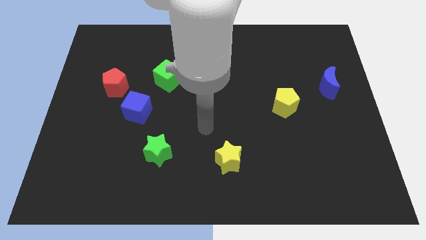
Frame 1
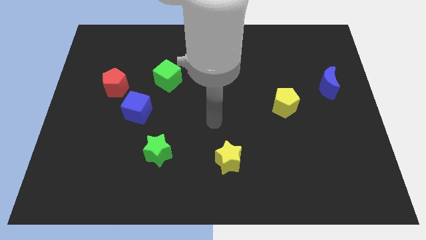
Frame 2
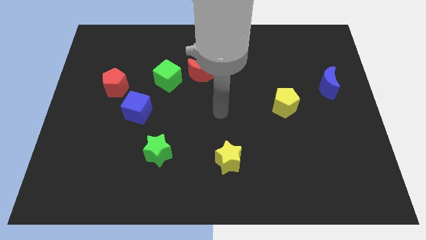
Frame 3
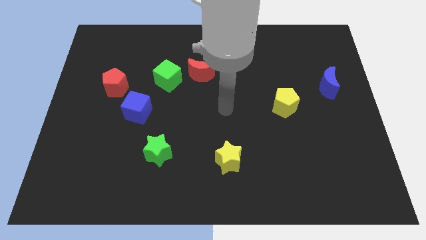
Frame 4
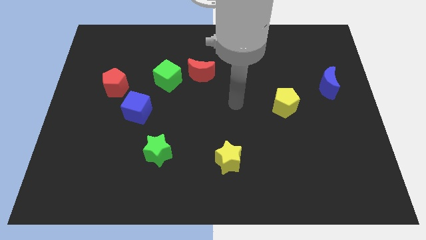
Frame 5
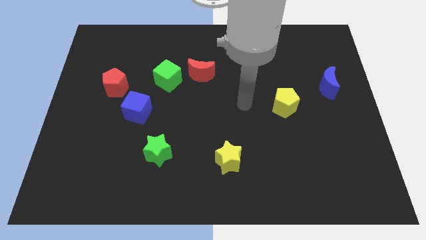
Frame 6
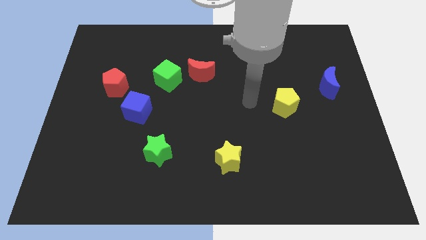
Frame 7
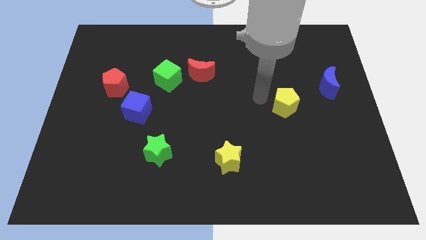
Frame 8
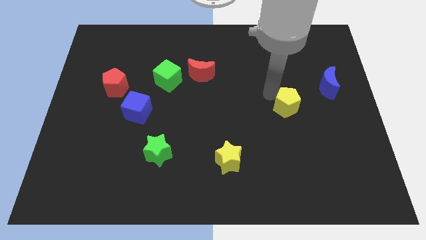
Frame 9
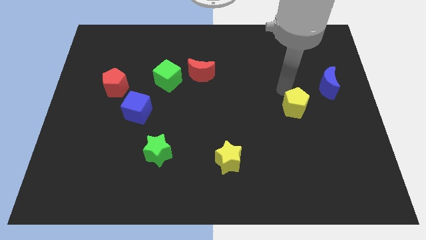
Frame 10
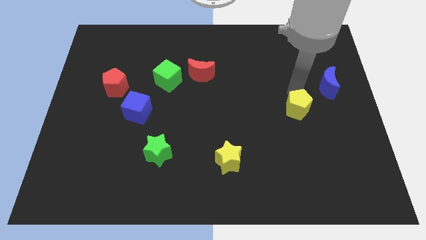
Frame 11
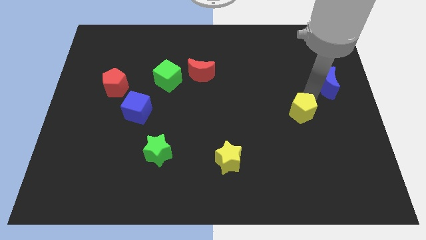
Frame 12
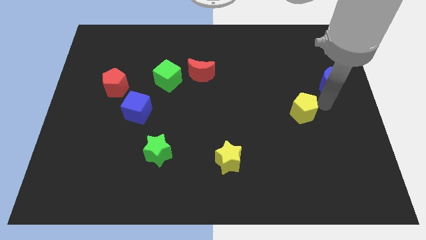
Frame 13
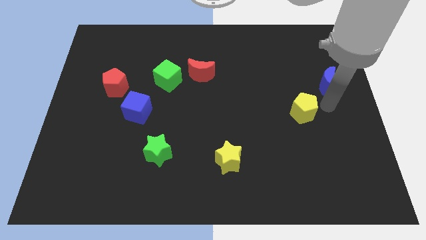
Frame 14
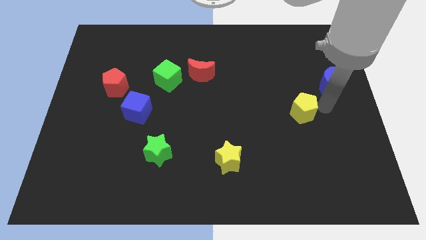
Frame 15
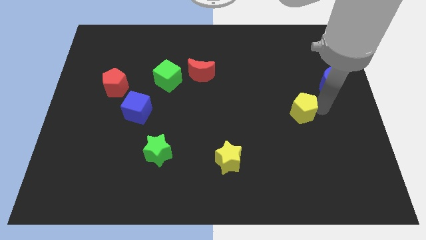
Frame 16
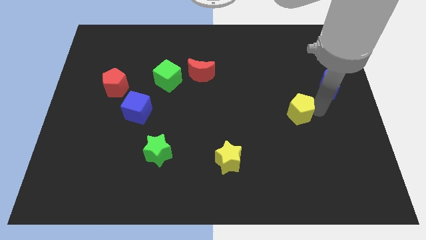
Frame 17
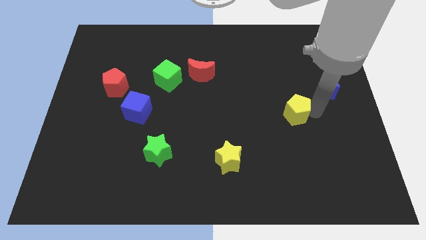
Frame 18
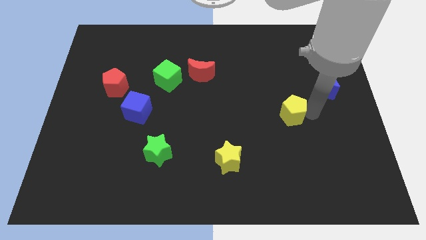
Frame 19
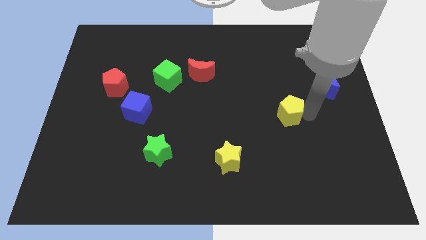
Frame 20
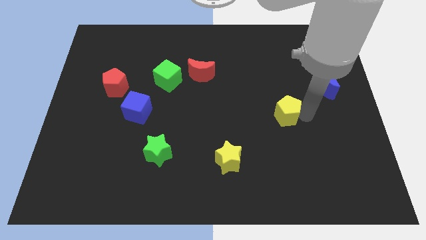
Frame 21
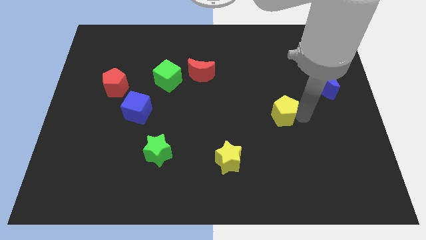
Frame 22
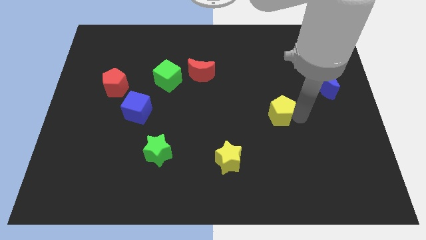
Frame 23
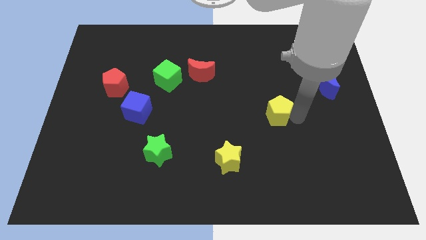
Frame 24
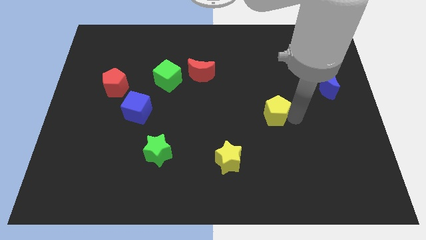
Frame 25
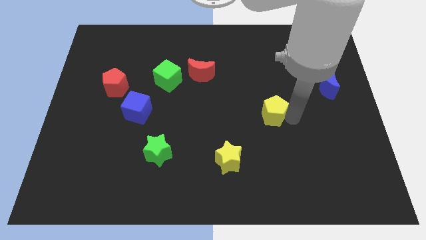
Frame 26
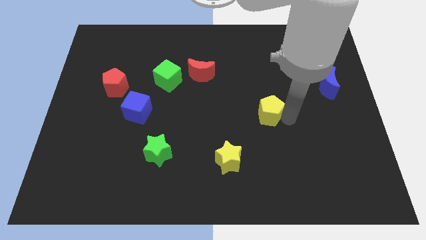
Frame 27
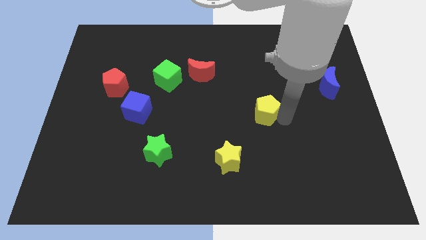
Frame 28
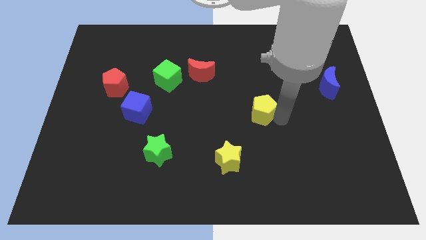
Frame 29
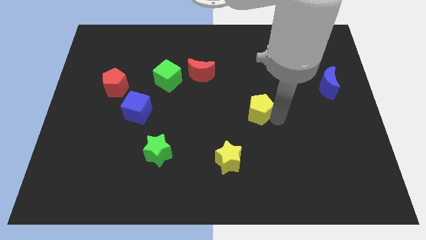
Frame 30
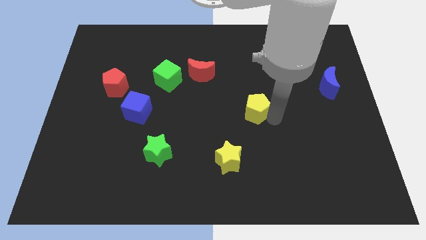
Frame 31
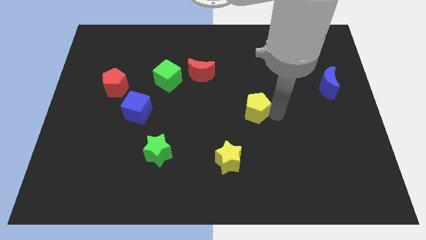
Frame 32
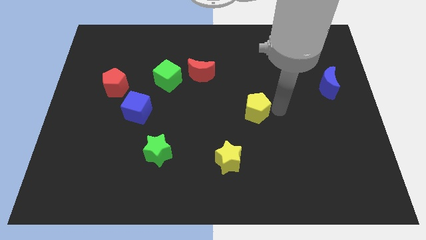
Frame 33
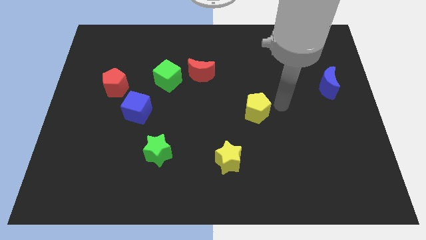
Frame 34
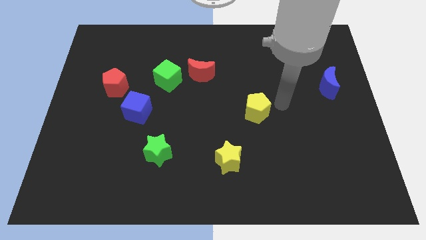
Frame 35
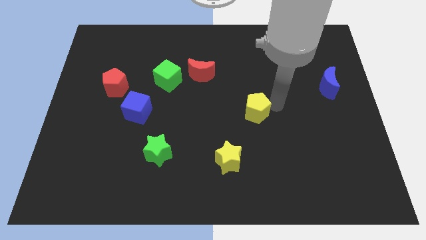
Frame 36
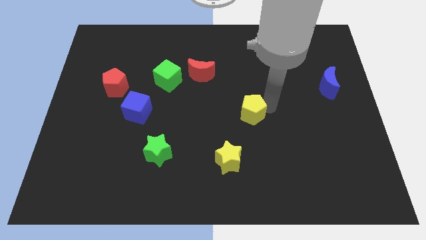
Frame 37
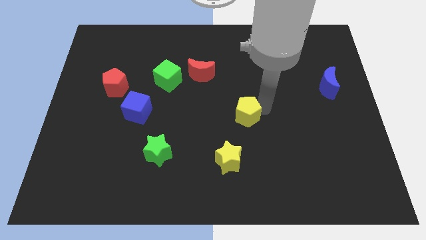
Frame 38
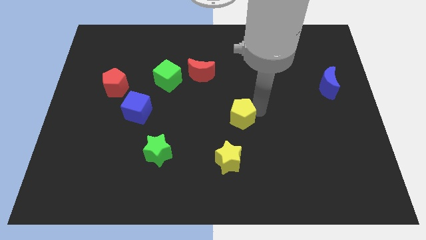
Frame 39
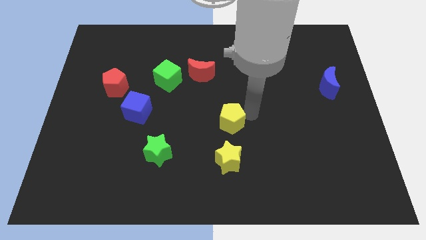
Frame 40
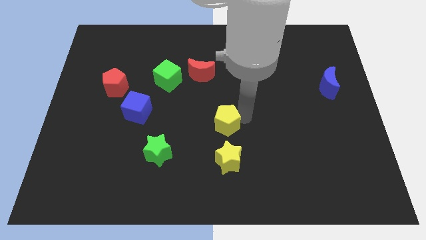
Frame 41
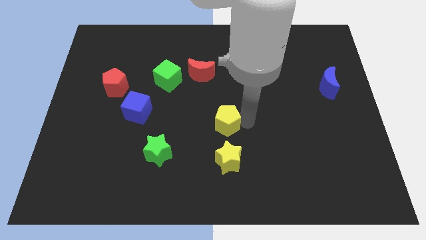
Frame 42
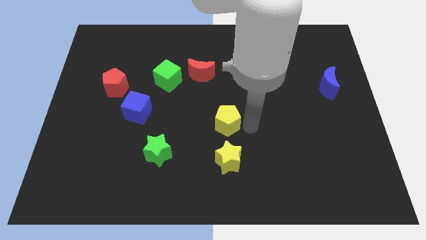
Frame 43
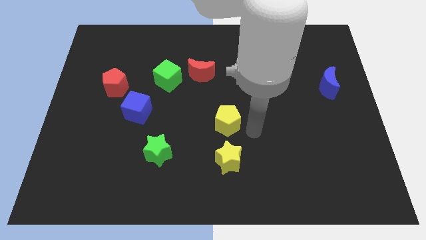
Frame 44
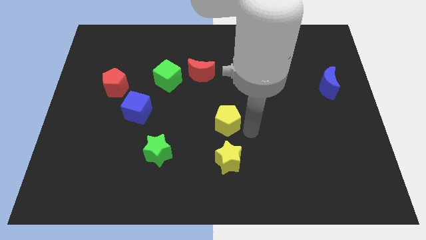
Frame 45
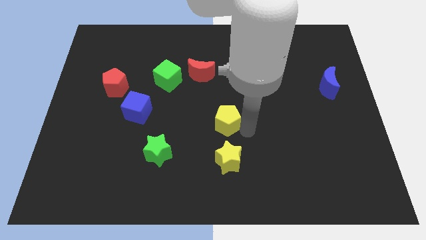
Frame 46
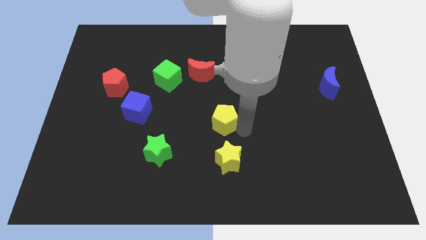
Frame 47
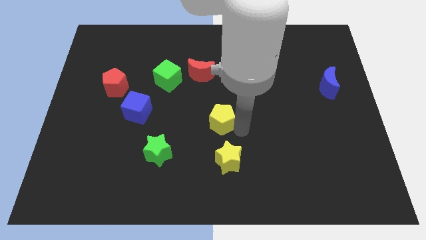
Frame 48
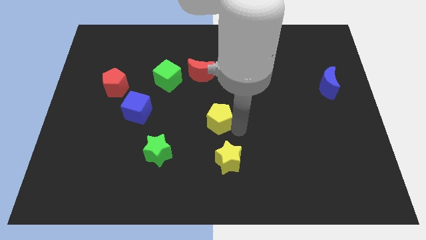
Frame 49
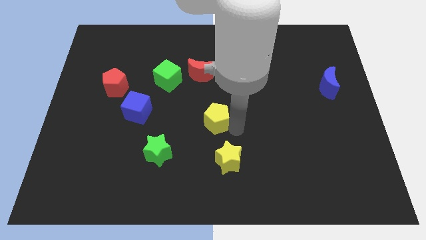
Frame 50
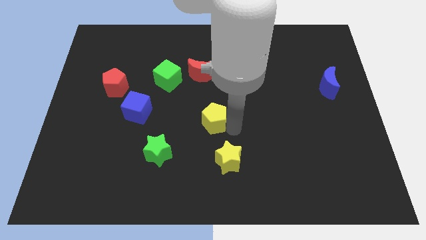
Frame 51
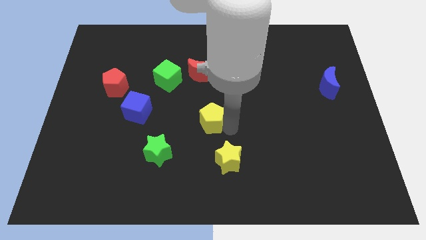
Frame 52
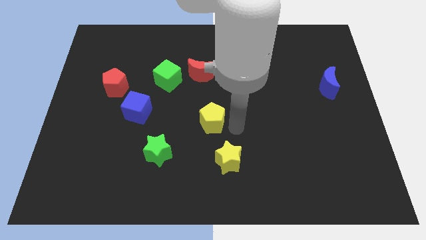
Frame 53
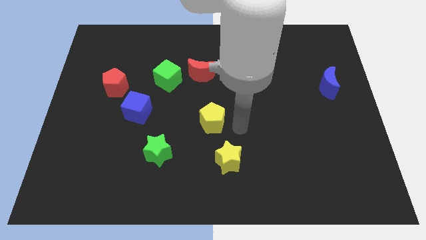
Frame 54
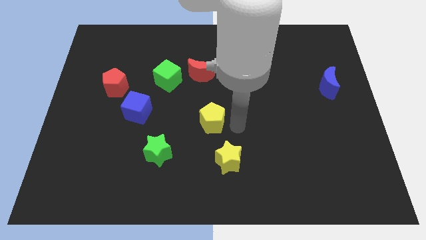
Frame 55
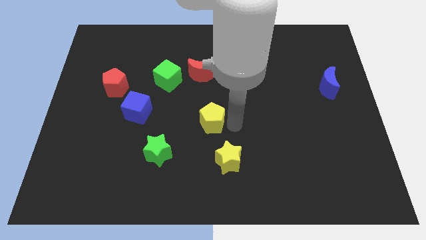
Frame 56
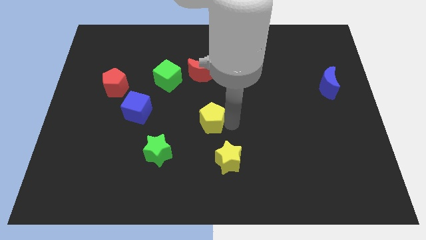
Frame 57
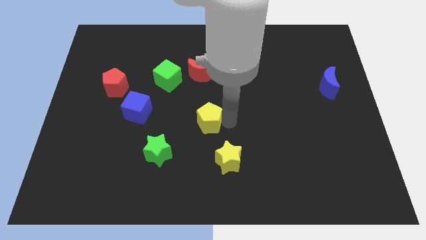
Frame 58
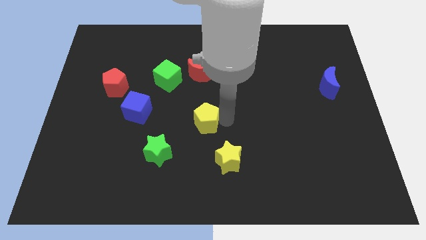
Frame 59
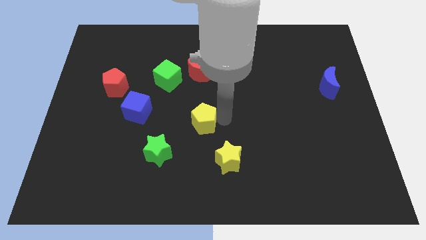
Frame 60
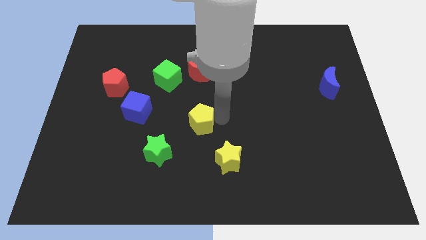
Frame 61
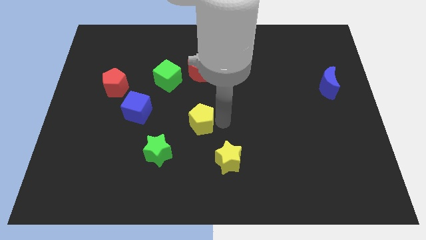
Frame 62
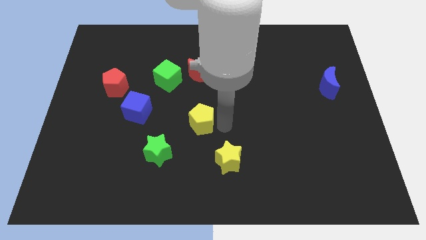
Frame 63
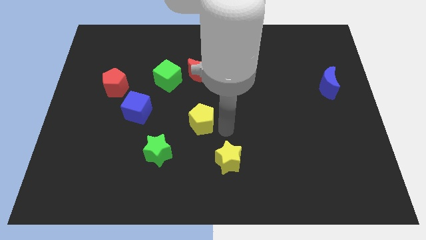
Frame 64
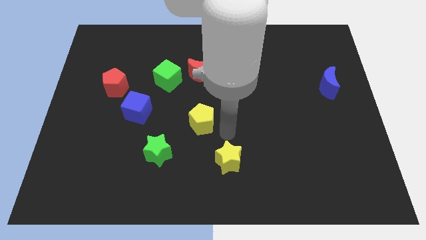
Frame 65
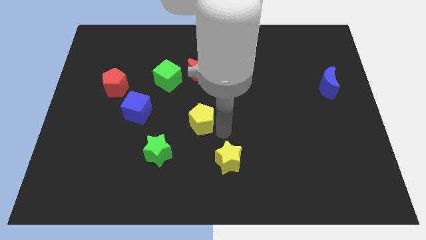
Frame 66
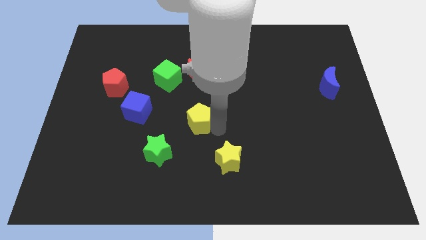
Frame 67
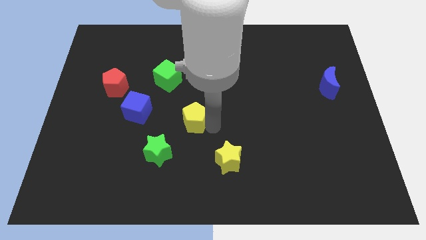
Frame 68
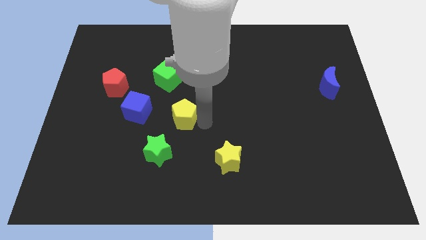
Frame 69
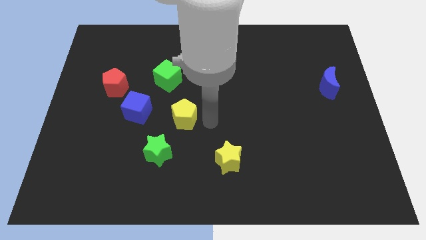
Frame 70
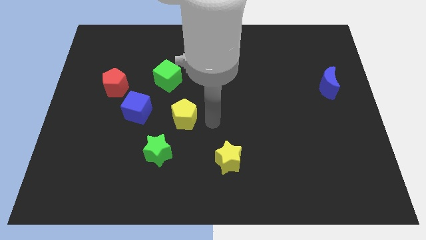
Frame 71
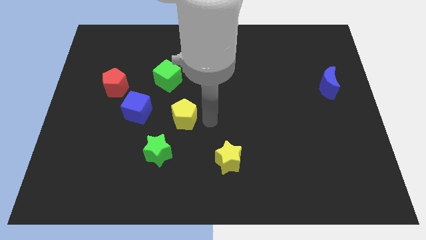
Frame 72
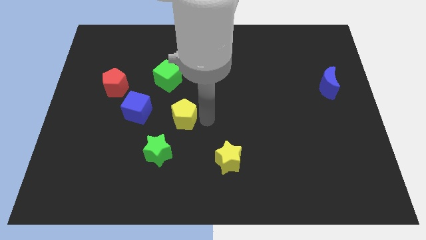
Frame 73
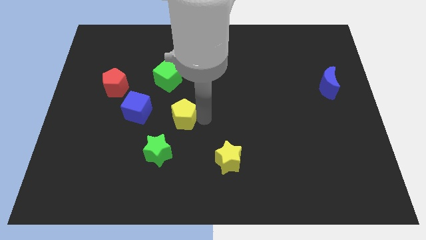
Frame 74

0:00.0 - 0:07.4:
push the yellow pentagon to the top side of the green star

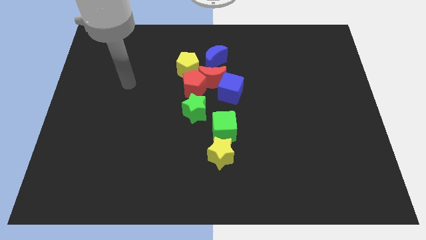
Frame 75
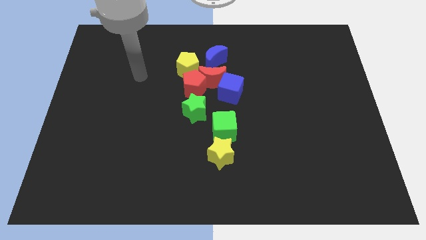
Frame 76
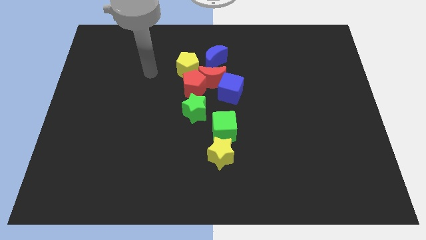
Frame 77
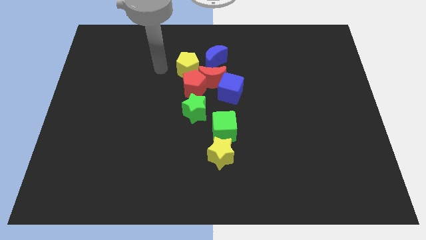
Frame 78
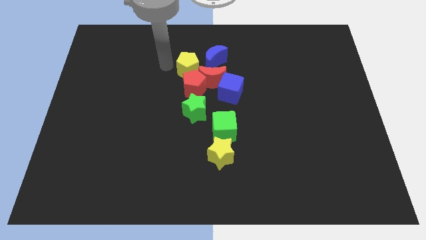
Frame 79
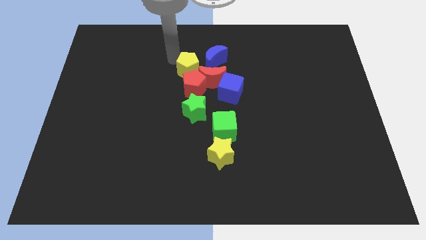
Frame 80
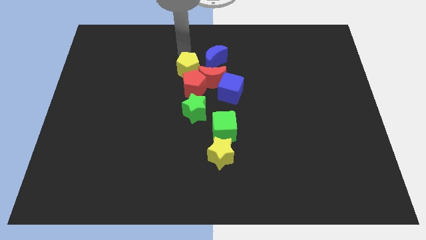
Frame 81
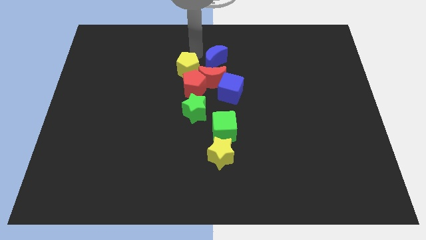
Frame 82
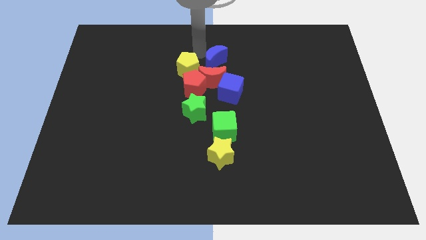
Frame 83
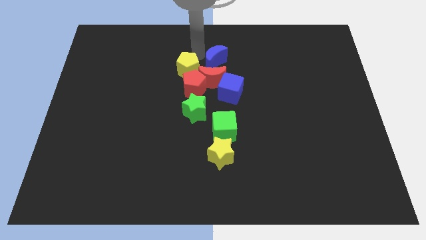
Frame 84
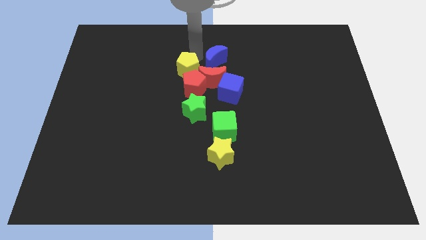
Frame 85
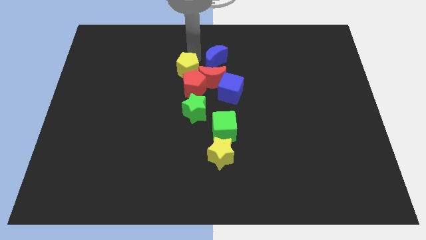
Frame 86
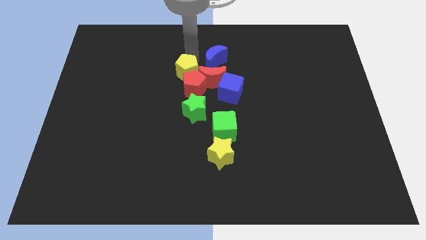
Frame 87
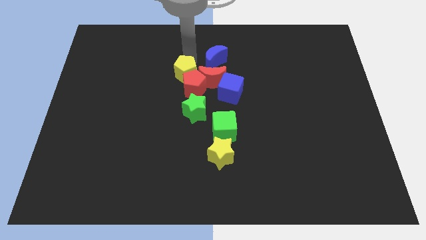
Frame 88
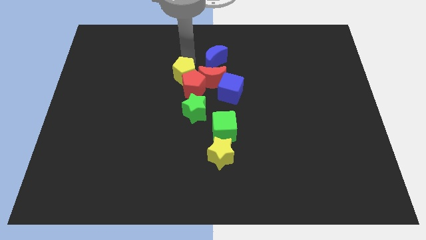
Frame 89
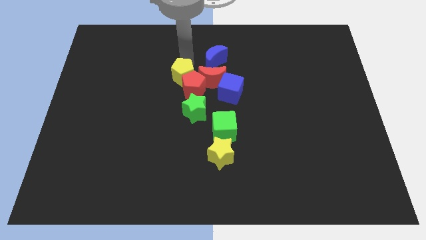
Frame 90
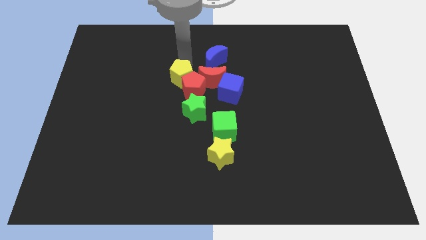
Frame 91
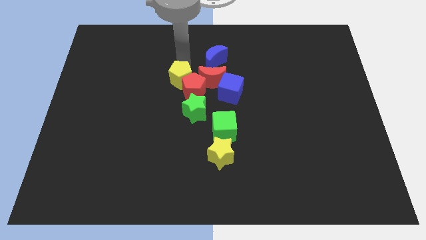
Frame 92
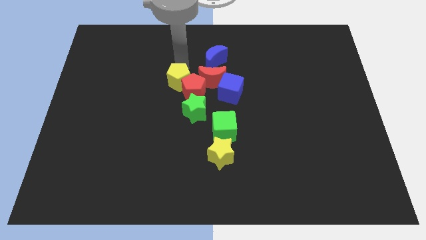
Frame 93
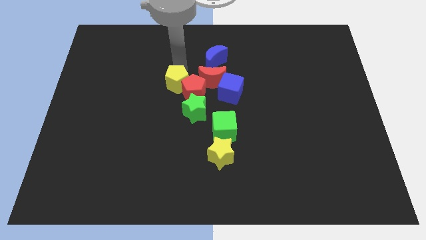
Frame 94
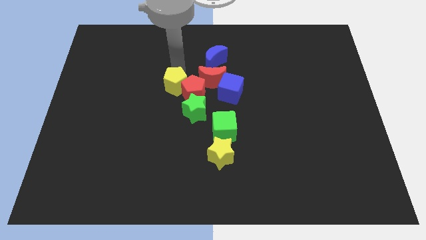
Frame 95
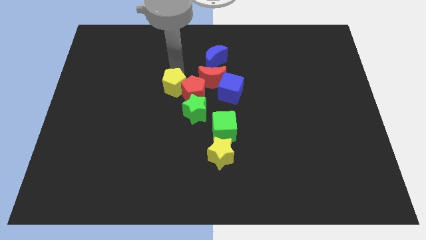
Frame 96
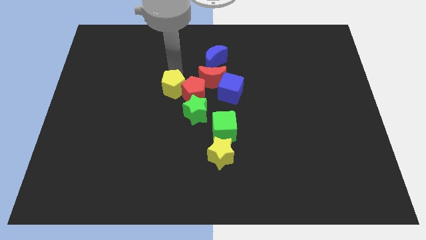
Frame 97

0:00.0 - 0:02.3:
put the yellow pentagon to the bottom left side of the red moon
